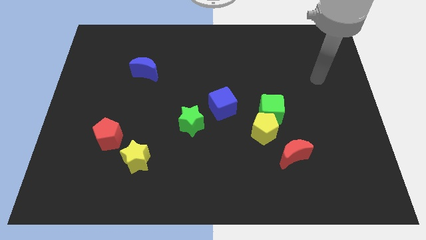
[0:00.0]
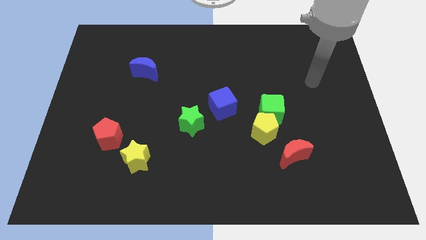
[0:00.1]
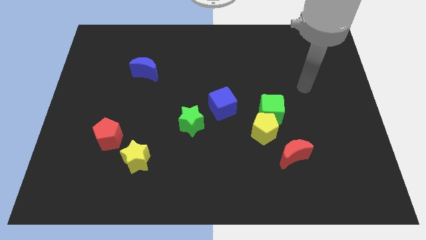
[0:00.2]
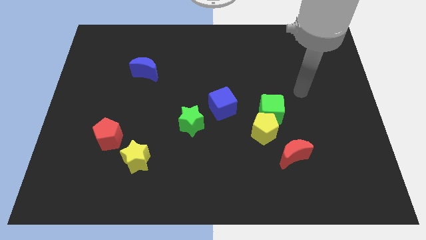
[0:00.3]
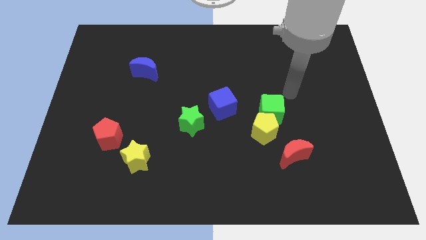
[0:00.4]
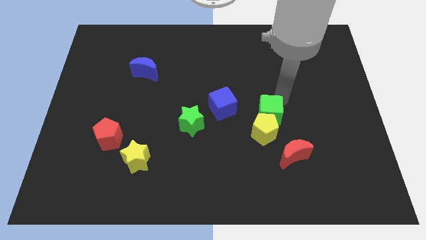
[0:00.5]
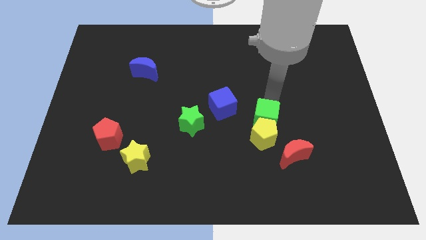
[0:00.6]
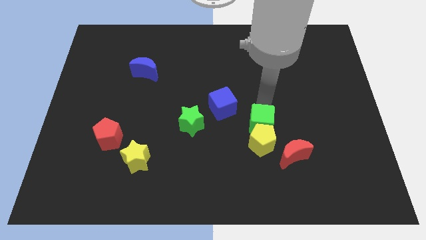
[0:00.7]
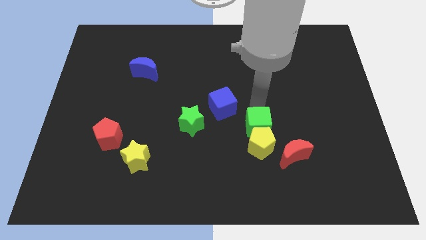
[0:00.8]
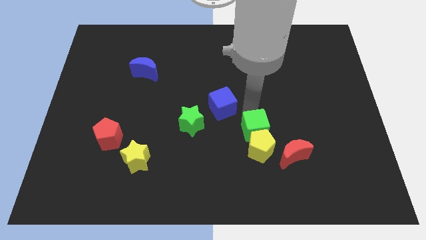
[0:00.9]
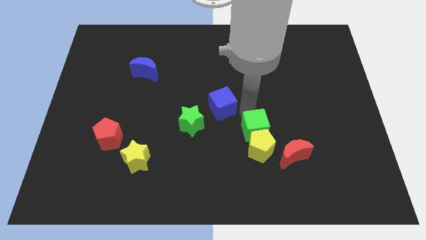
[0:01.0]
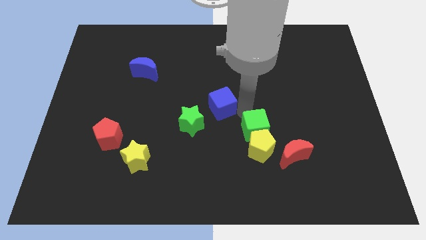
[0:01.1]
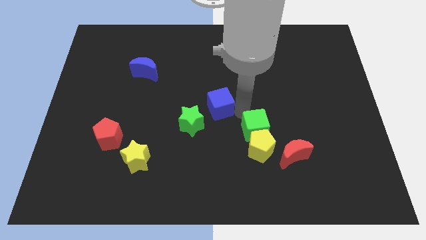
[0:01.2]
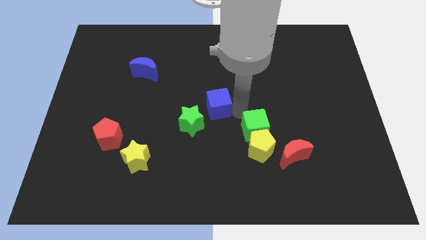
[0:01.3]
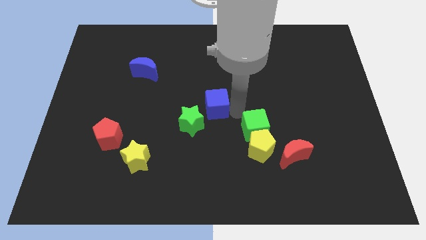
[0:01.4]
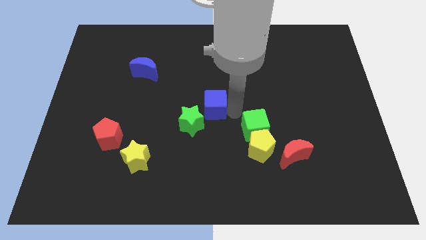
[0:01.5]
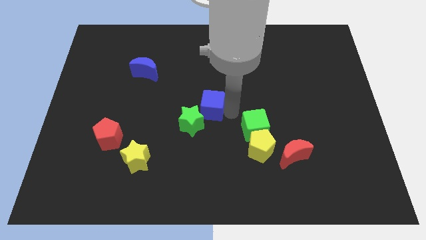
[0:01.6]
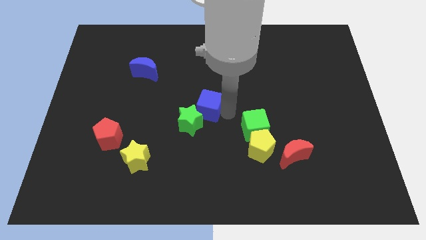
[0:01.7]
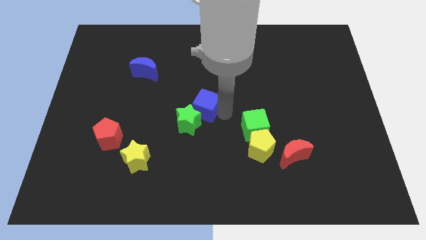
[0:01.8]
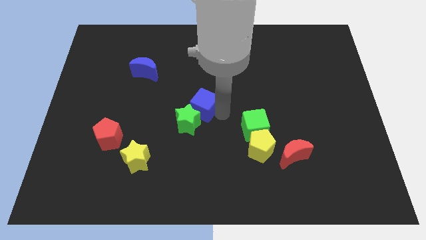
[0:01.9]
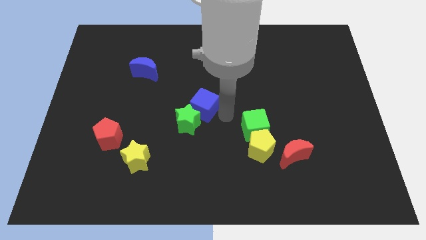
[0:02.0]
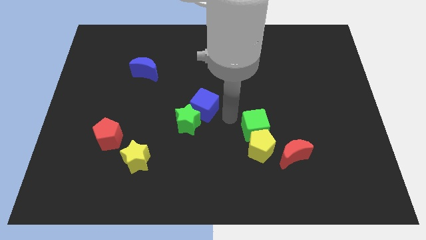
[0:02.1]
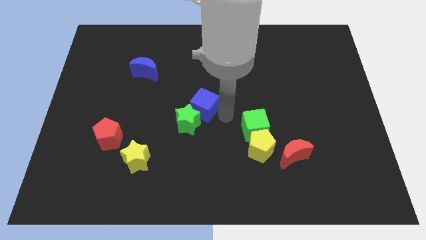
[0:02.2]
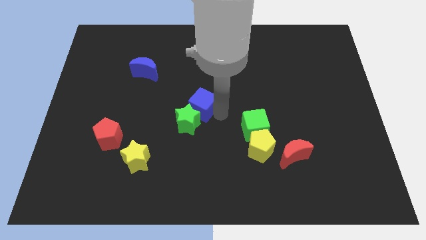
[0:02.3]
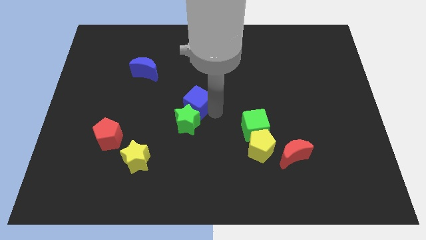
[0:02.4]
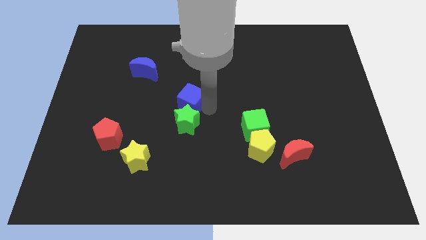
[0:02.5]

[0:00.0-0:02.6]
move the blue cube a little bit left

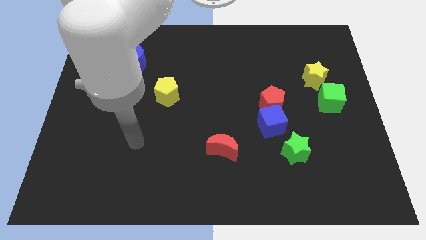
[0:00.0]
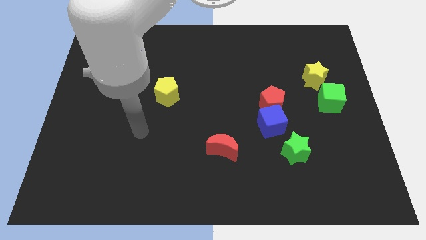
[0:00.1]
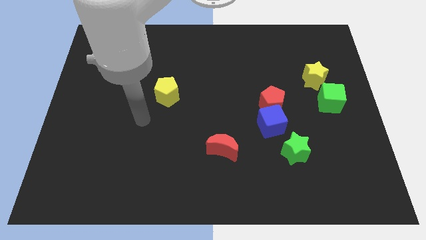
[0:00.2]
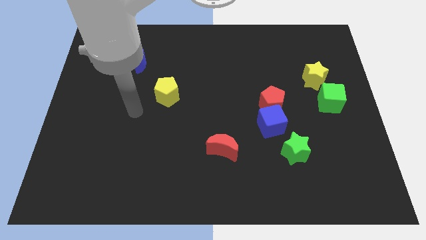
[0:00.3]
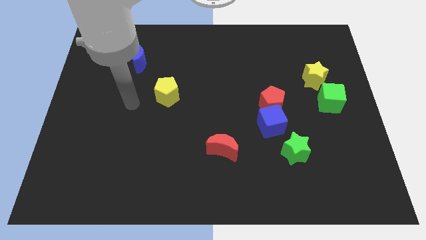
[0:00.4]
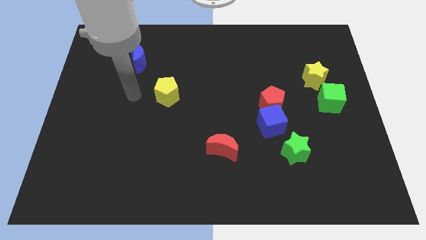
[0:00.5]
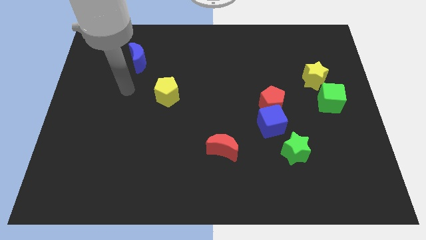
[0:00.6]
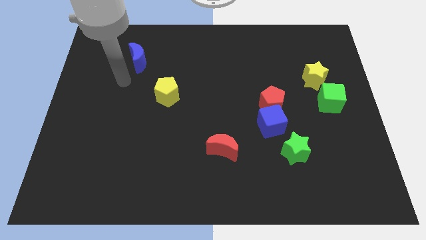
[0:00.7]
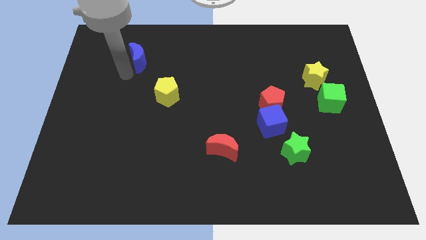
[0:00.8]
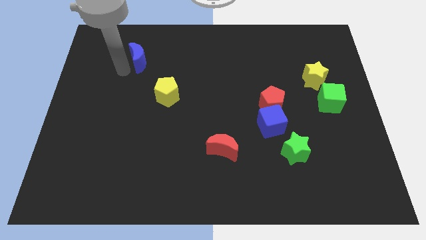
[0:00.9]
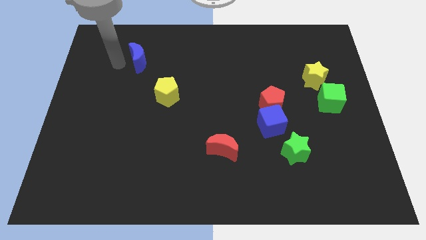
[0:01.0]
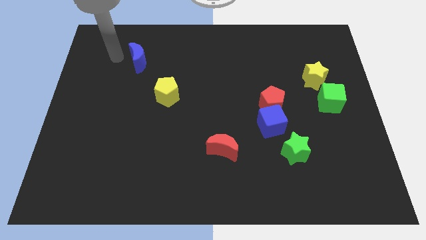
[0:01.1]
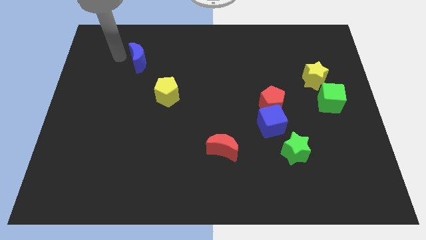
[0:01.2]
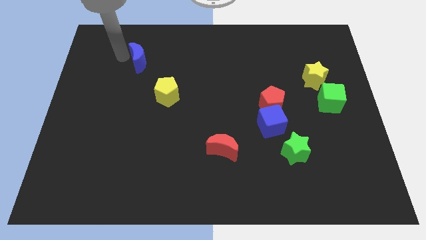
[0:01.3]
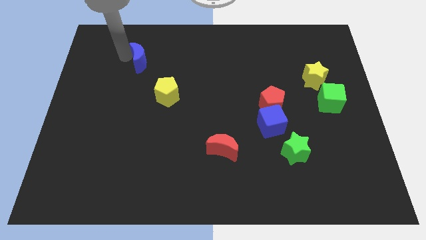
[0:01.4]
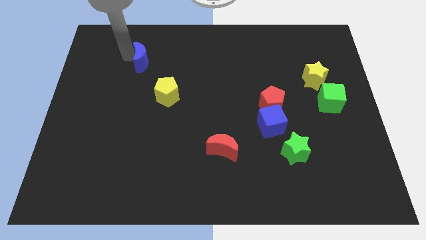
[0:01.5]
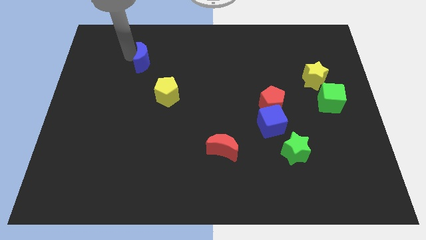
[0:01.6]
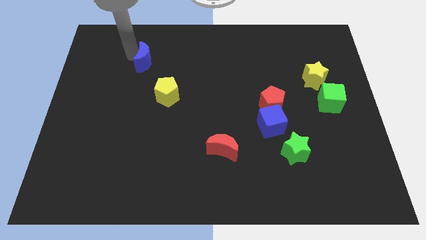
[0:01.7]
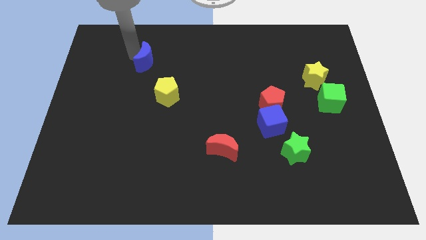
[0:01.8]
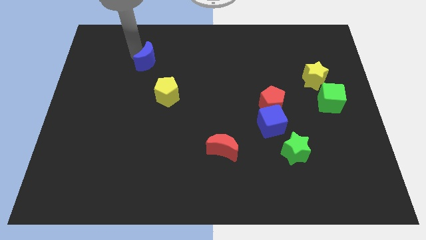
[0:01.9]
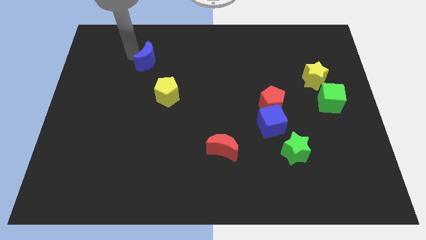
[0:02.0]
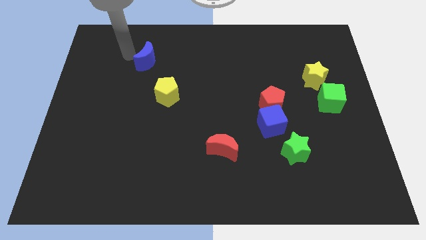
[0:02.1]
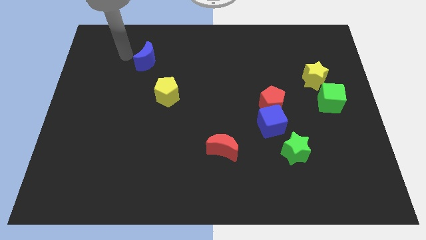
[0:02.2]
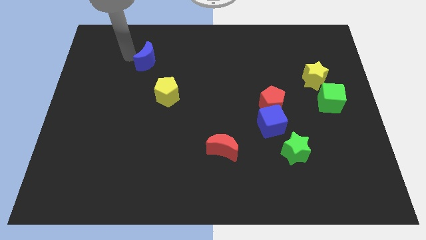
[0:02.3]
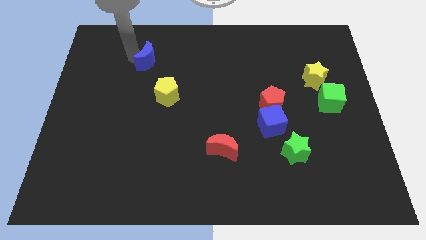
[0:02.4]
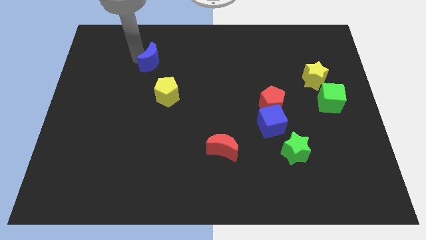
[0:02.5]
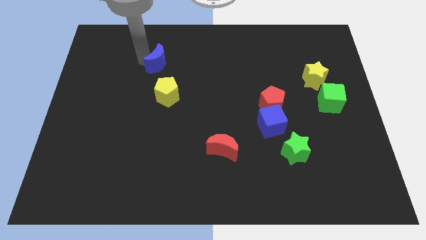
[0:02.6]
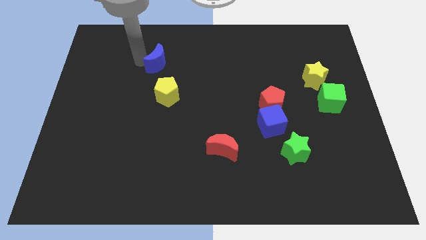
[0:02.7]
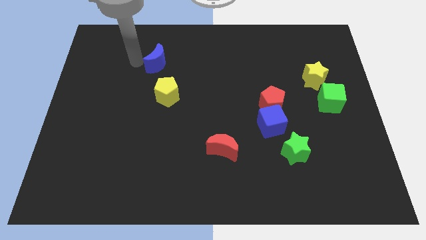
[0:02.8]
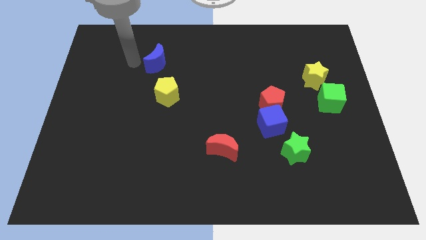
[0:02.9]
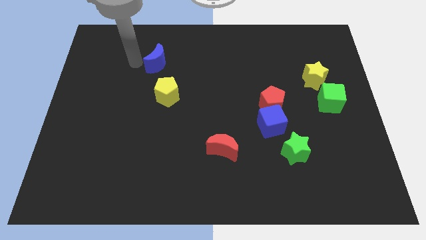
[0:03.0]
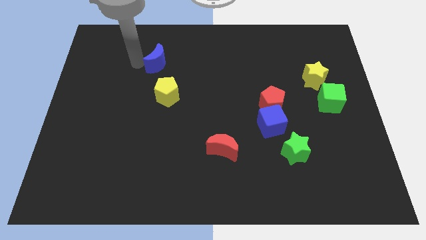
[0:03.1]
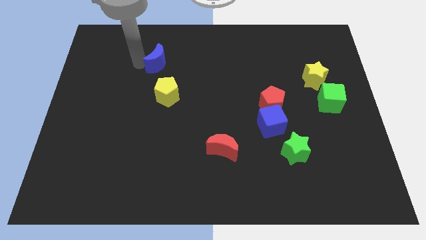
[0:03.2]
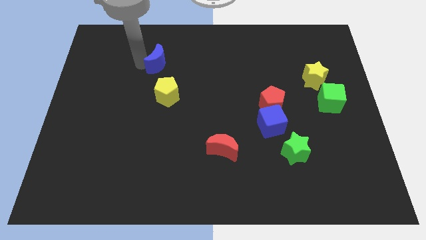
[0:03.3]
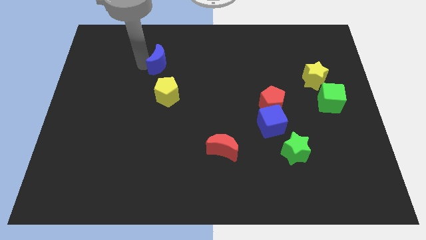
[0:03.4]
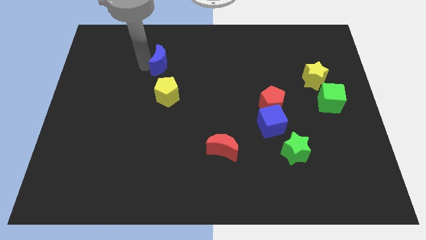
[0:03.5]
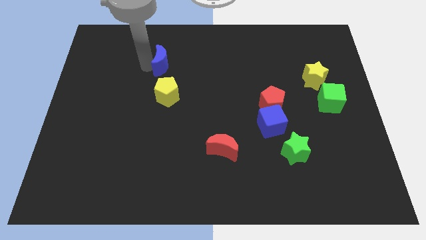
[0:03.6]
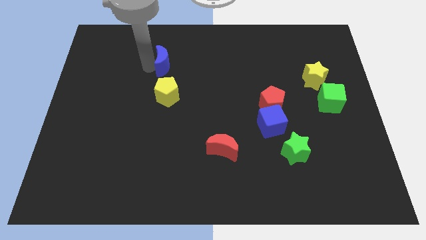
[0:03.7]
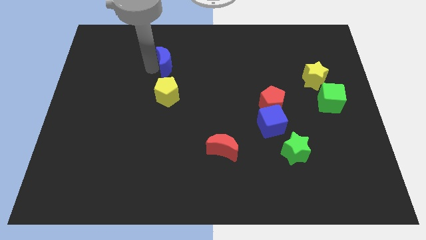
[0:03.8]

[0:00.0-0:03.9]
push the blue moon slightly to the right

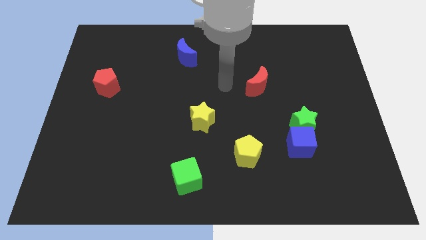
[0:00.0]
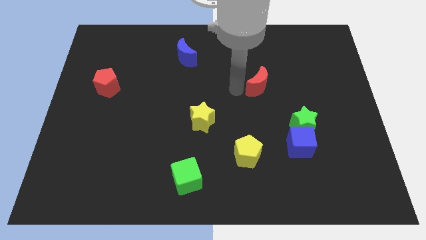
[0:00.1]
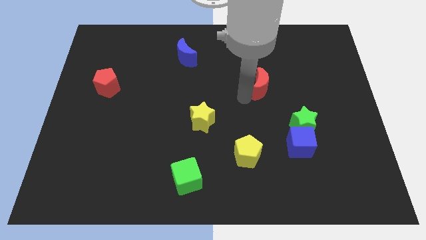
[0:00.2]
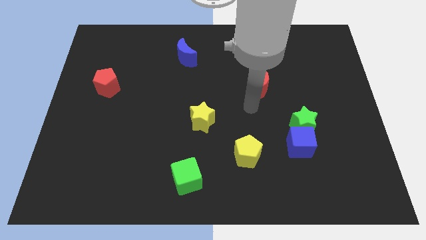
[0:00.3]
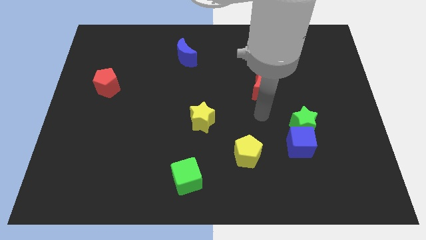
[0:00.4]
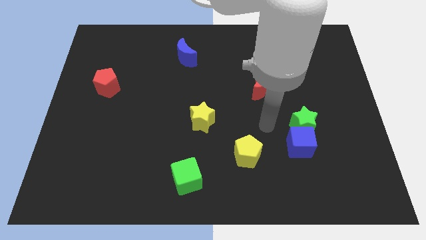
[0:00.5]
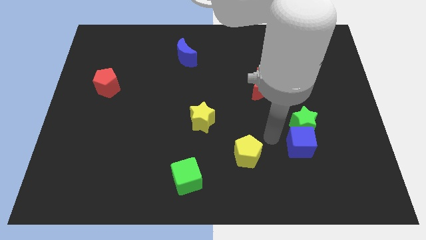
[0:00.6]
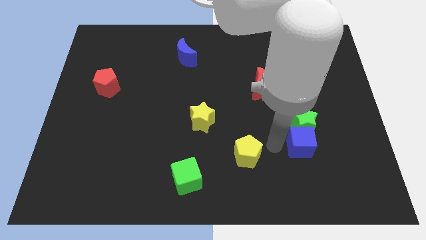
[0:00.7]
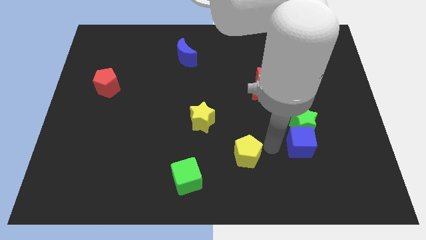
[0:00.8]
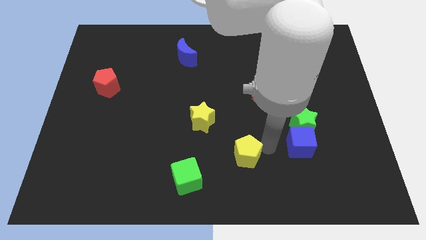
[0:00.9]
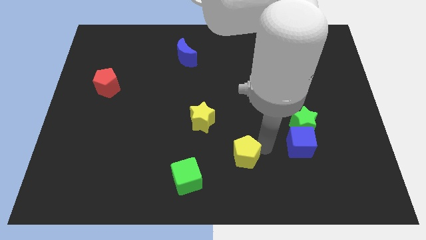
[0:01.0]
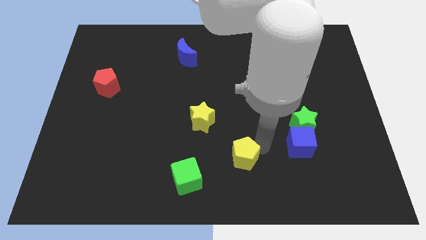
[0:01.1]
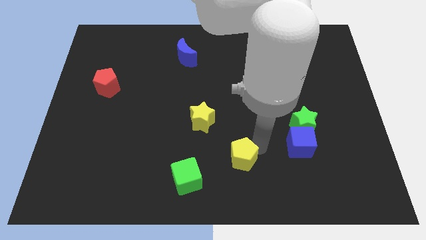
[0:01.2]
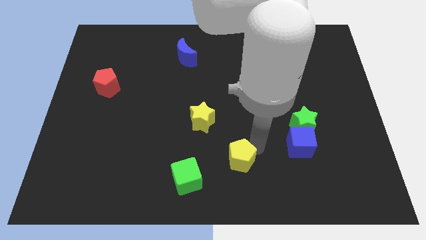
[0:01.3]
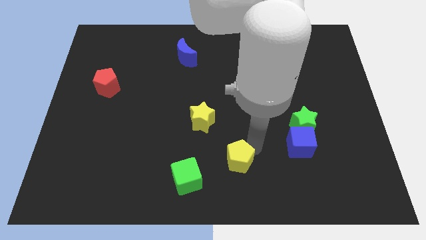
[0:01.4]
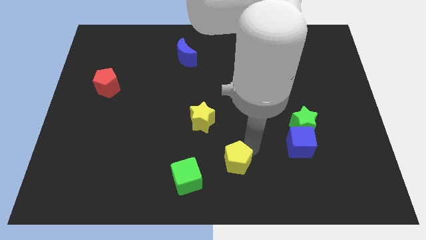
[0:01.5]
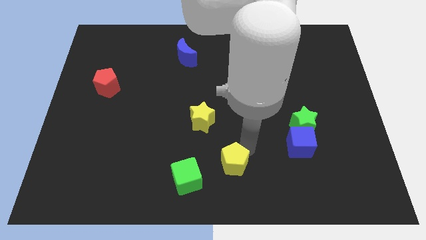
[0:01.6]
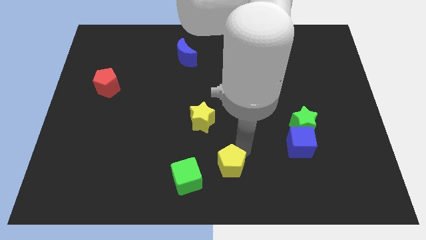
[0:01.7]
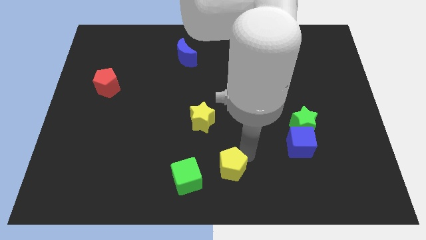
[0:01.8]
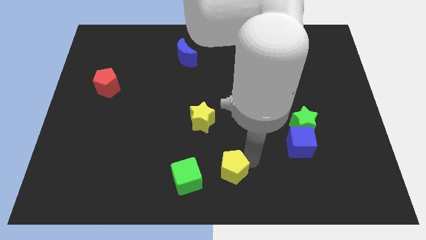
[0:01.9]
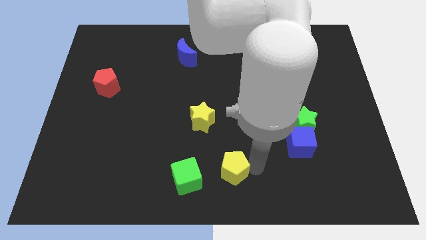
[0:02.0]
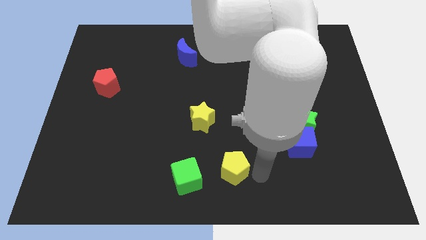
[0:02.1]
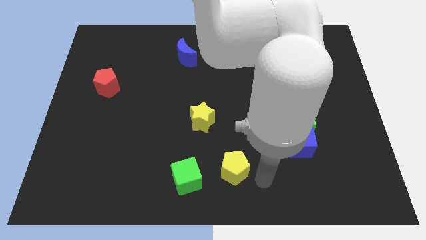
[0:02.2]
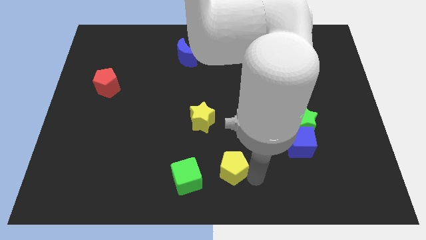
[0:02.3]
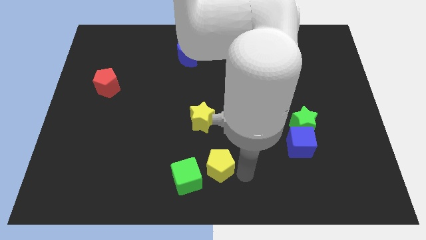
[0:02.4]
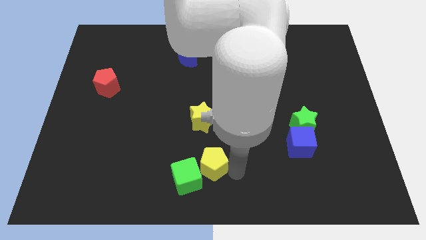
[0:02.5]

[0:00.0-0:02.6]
slide the yellow pentagon left somewhat
